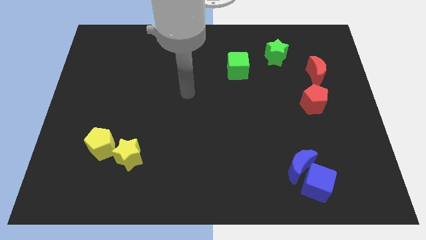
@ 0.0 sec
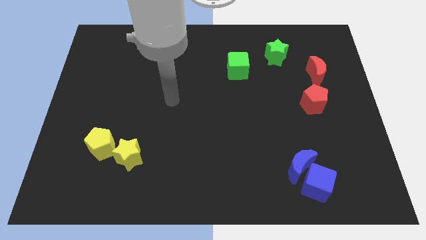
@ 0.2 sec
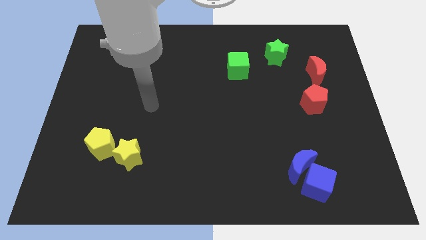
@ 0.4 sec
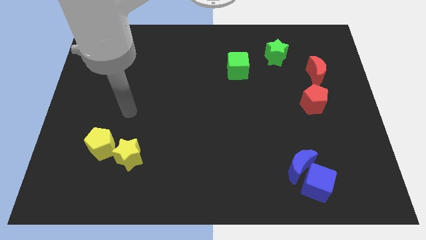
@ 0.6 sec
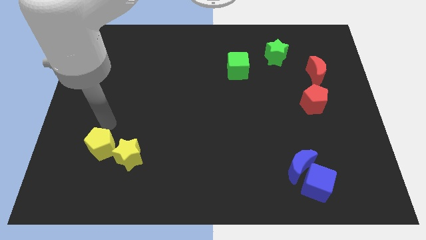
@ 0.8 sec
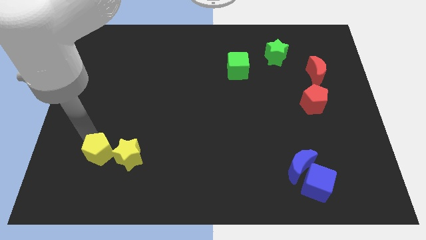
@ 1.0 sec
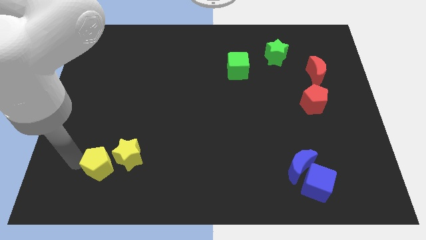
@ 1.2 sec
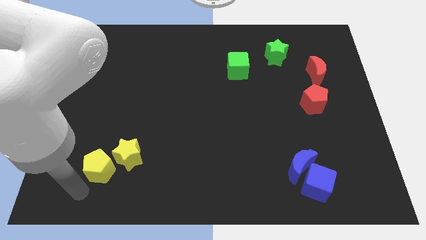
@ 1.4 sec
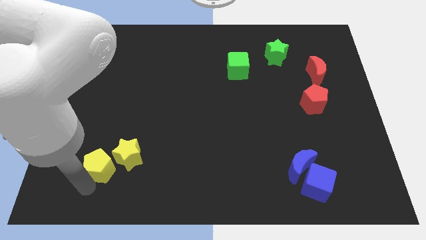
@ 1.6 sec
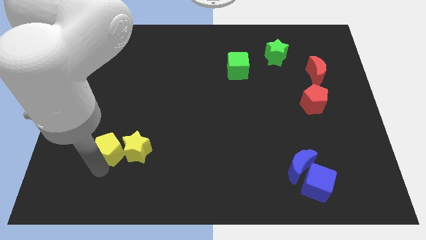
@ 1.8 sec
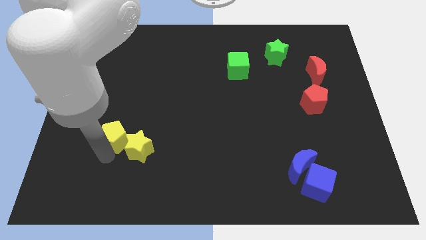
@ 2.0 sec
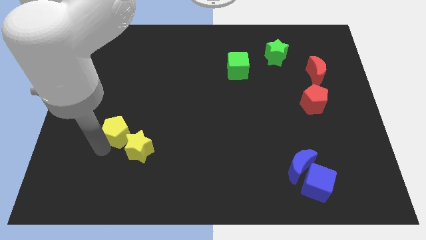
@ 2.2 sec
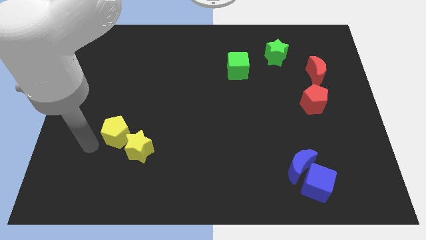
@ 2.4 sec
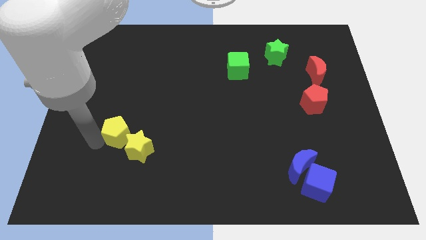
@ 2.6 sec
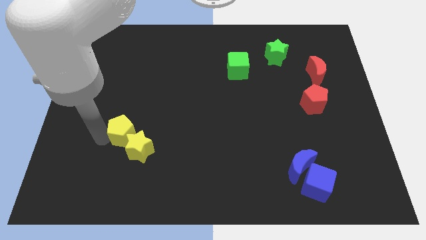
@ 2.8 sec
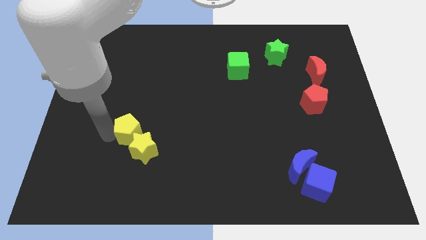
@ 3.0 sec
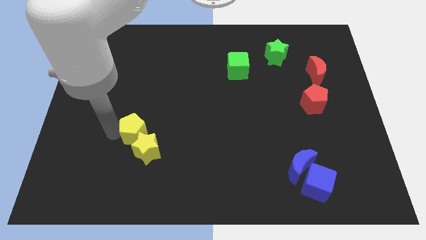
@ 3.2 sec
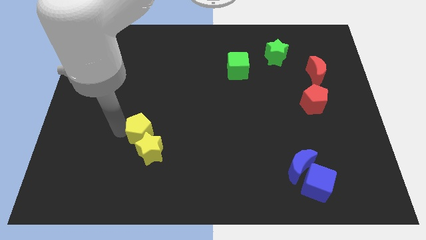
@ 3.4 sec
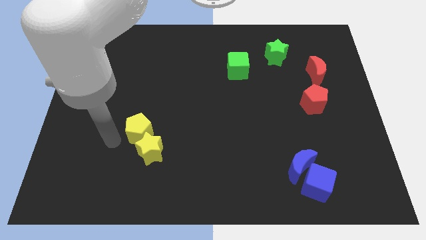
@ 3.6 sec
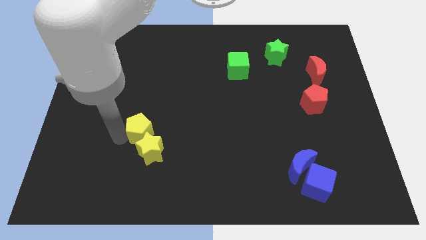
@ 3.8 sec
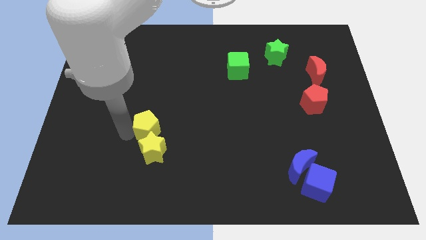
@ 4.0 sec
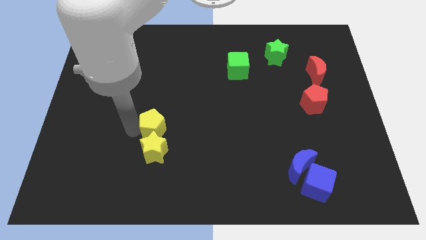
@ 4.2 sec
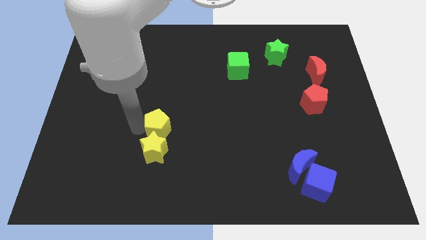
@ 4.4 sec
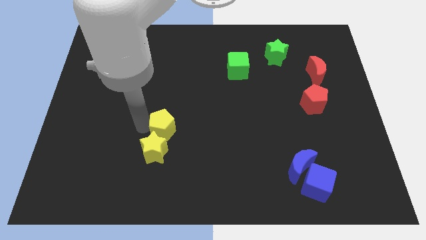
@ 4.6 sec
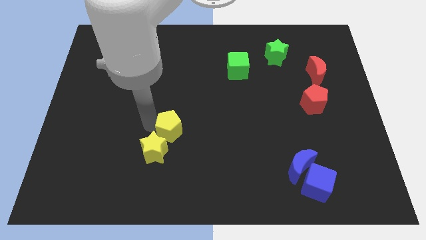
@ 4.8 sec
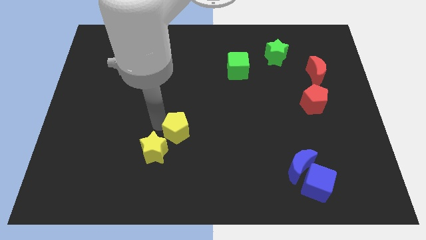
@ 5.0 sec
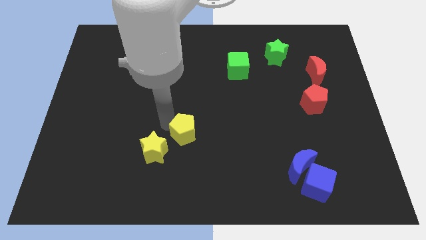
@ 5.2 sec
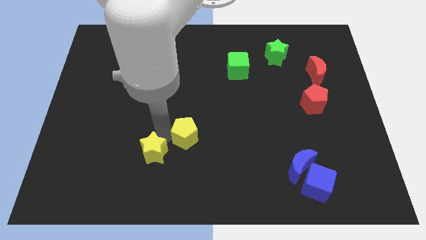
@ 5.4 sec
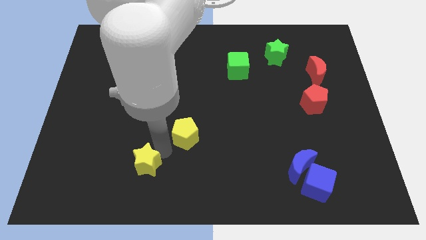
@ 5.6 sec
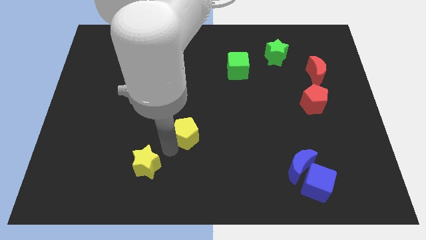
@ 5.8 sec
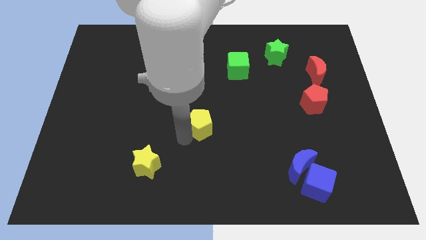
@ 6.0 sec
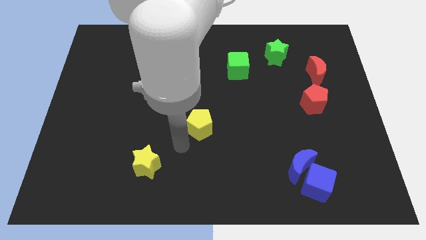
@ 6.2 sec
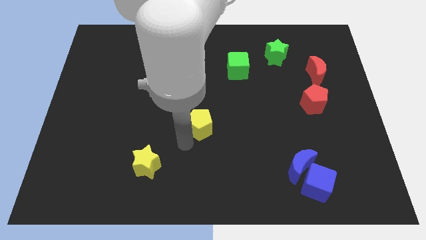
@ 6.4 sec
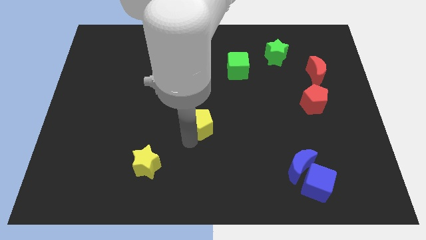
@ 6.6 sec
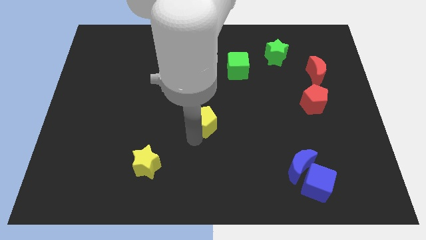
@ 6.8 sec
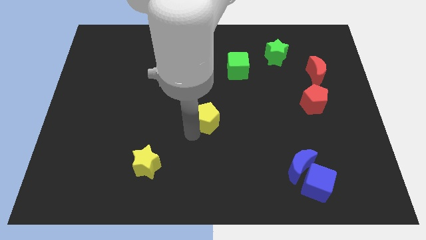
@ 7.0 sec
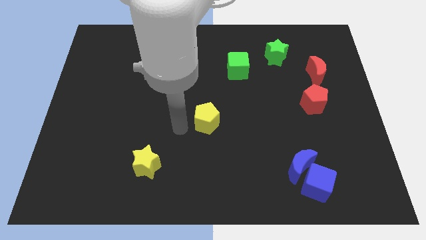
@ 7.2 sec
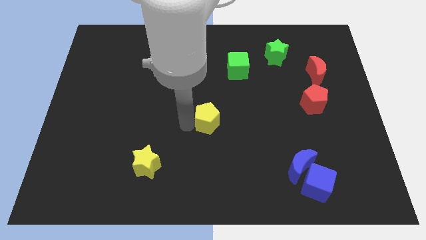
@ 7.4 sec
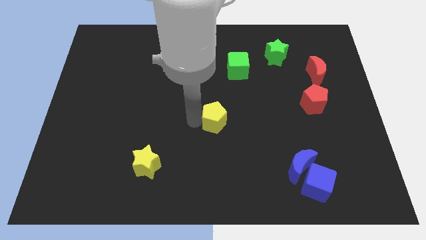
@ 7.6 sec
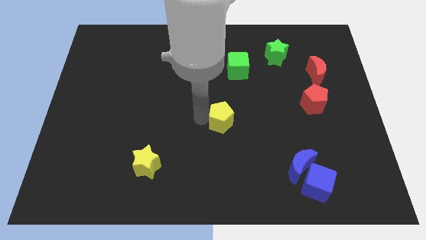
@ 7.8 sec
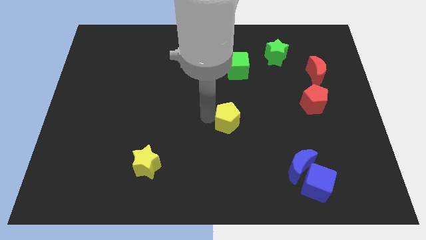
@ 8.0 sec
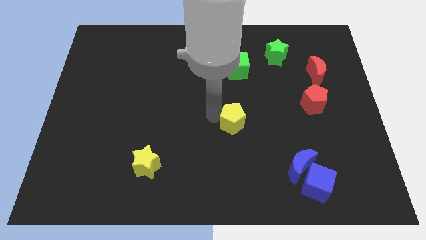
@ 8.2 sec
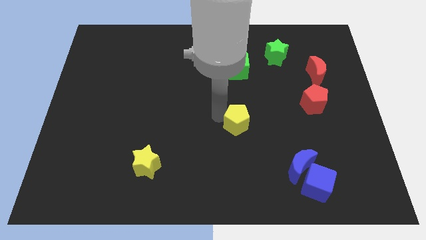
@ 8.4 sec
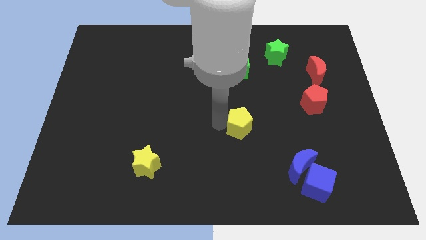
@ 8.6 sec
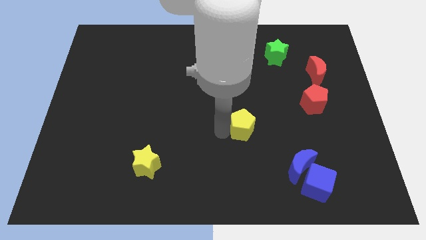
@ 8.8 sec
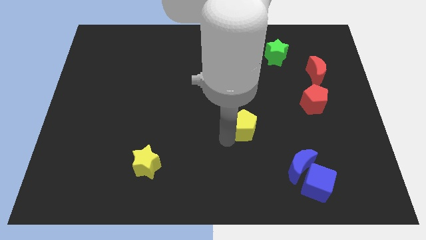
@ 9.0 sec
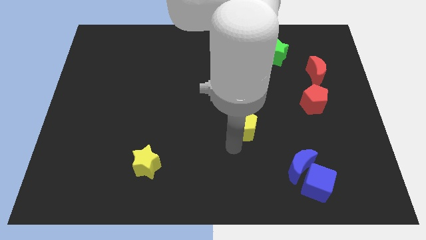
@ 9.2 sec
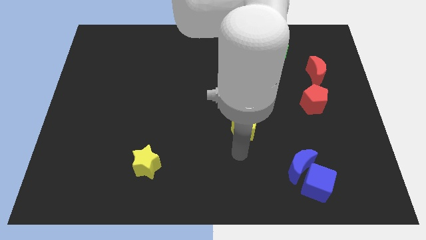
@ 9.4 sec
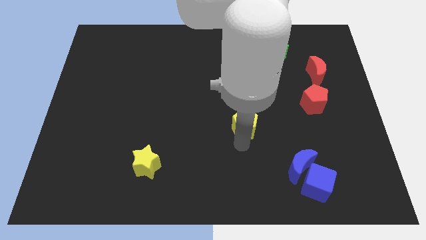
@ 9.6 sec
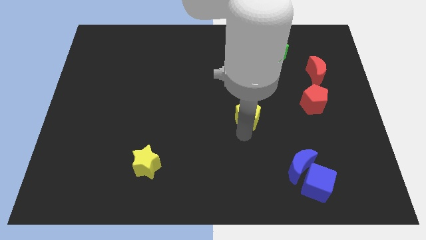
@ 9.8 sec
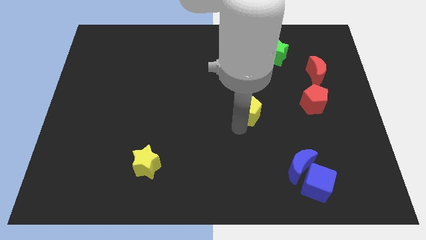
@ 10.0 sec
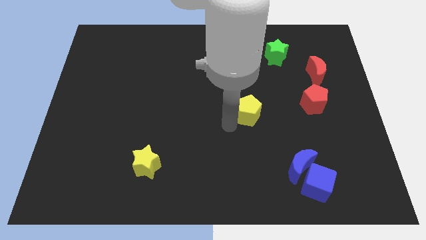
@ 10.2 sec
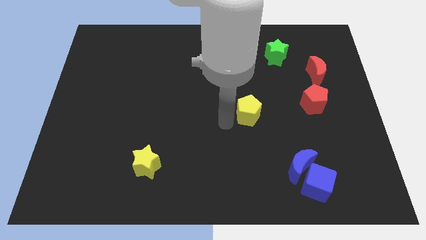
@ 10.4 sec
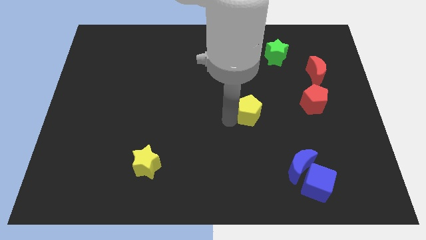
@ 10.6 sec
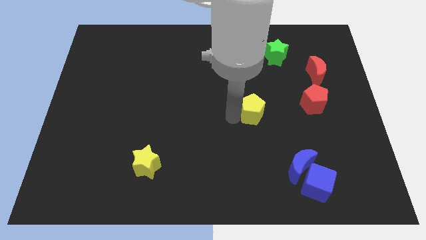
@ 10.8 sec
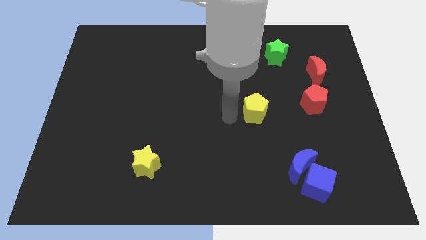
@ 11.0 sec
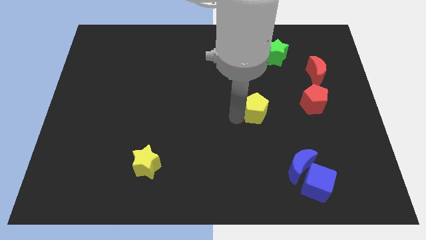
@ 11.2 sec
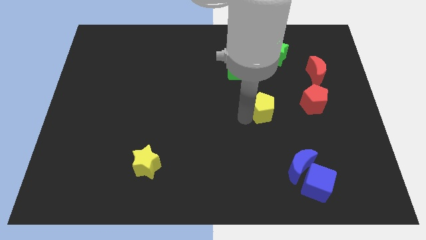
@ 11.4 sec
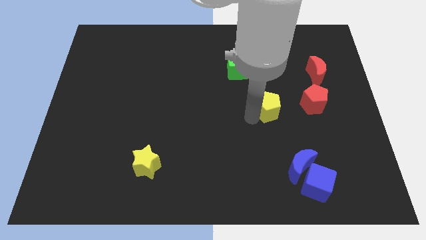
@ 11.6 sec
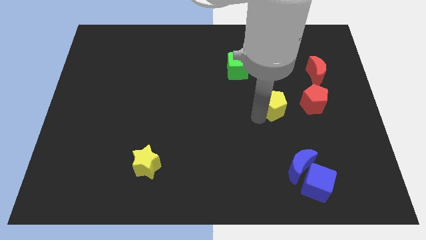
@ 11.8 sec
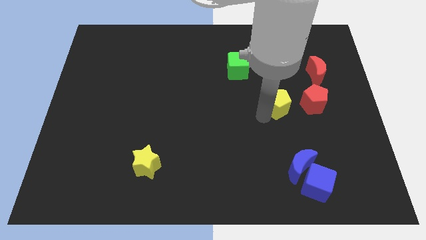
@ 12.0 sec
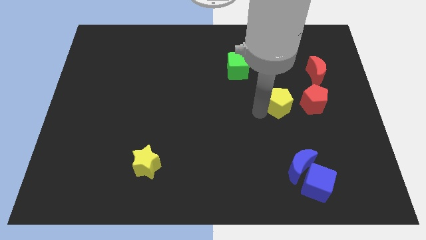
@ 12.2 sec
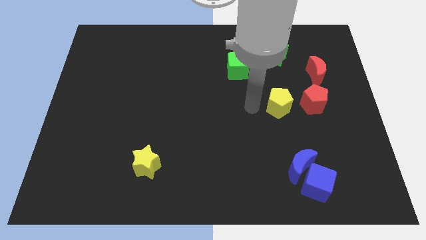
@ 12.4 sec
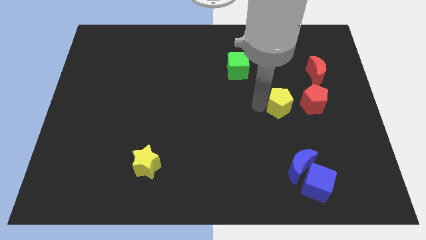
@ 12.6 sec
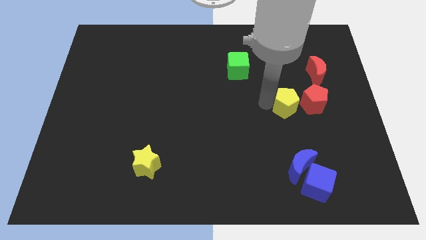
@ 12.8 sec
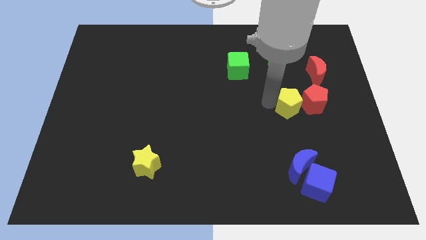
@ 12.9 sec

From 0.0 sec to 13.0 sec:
put the yellow pentagon close to the red pentagon

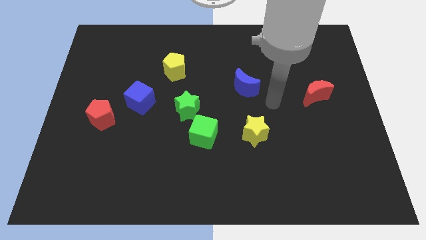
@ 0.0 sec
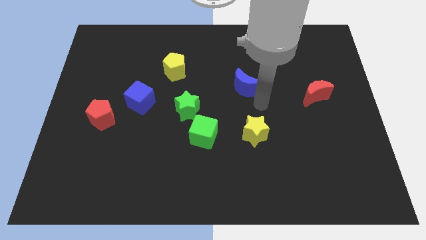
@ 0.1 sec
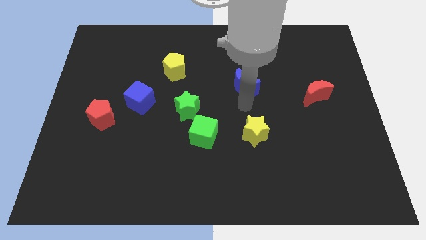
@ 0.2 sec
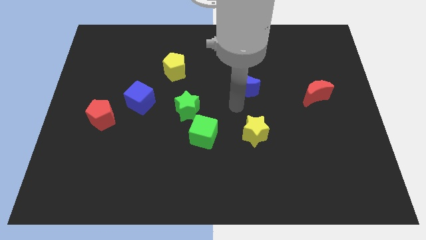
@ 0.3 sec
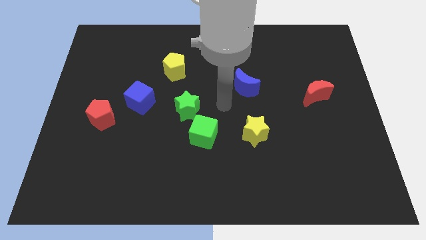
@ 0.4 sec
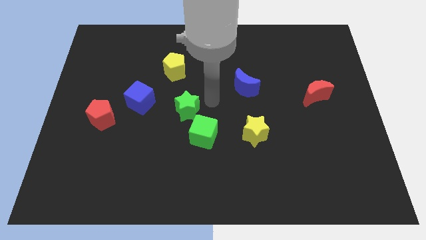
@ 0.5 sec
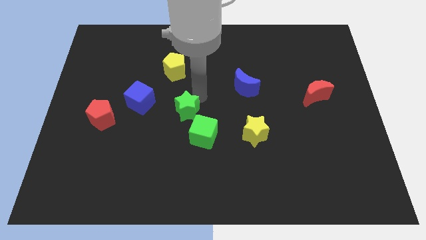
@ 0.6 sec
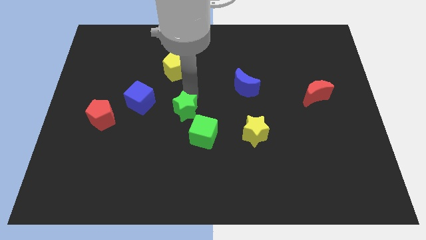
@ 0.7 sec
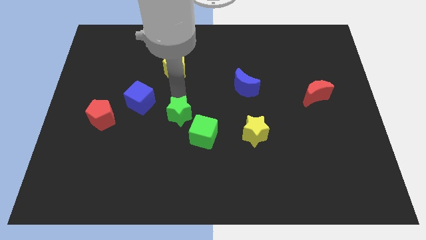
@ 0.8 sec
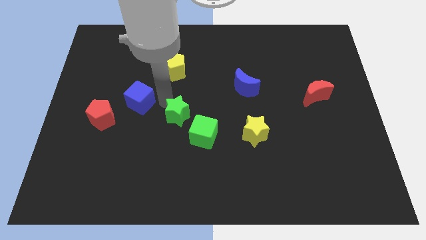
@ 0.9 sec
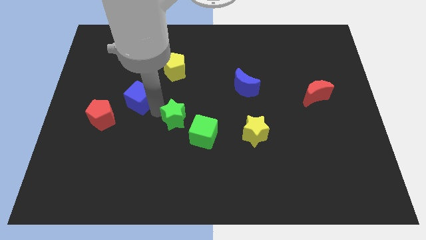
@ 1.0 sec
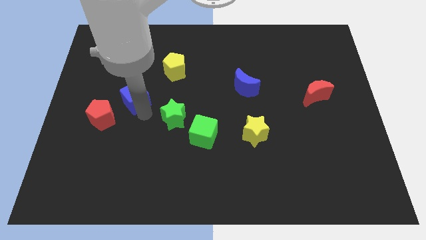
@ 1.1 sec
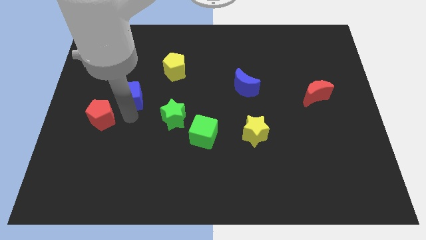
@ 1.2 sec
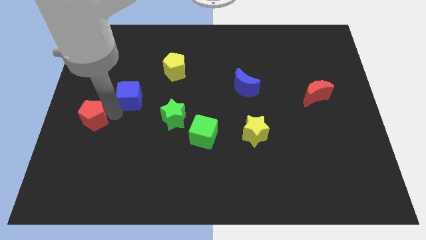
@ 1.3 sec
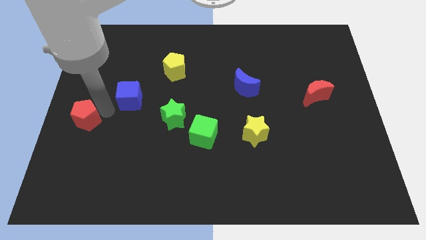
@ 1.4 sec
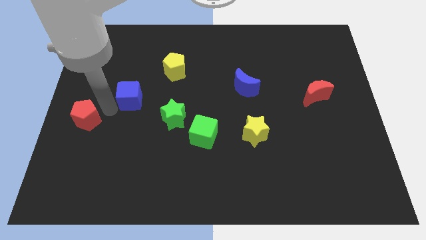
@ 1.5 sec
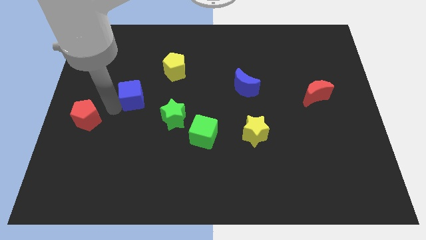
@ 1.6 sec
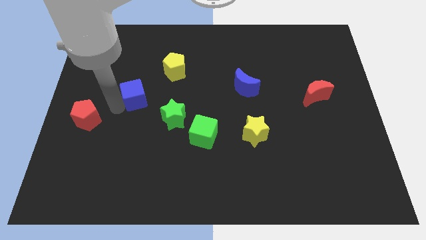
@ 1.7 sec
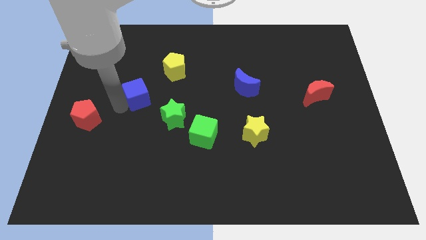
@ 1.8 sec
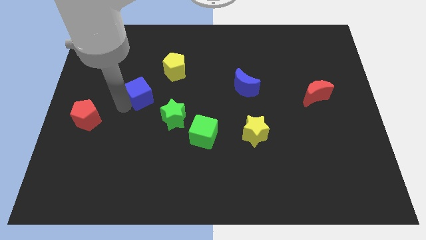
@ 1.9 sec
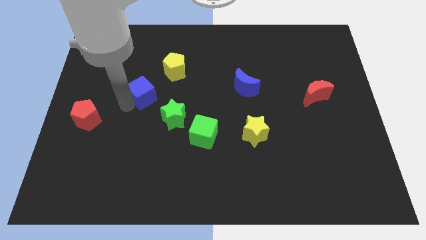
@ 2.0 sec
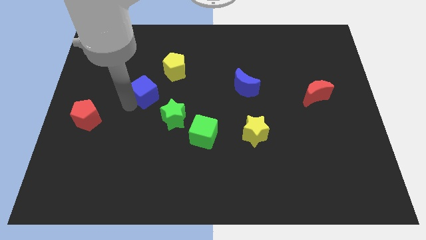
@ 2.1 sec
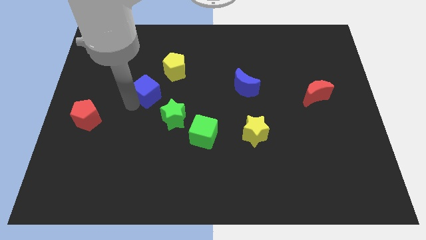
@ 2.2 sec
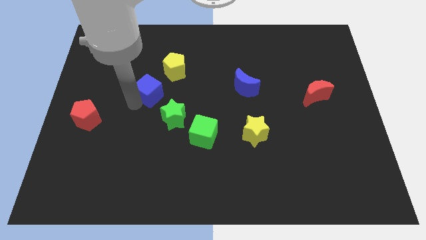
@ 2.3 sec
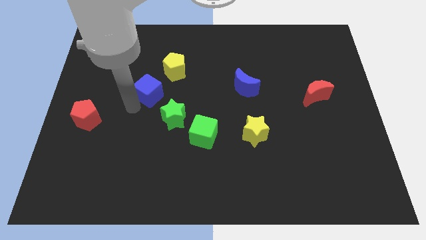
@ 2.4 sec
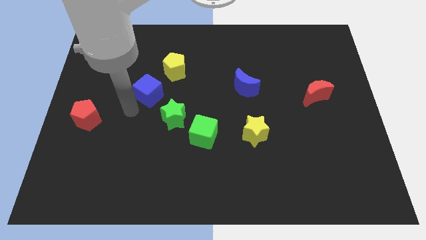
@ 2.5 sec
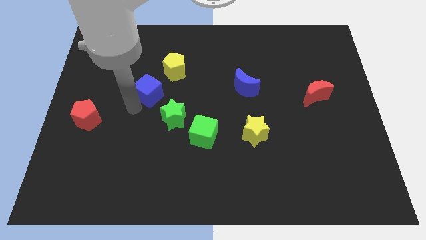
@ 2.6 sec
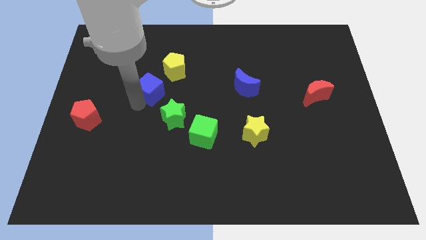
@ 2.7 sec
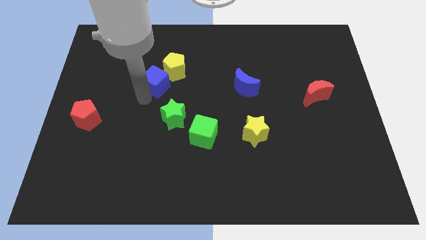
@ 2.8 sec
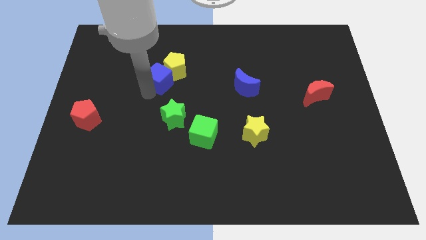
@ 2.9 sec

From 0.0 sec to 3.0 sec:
move the blue cube next to the yellow pentagon
